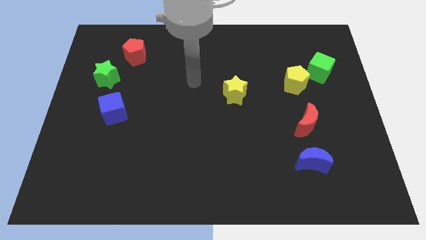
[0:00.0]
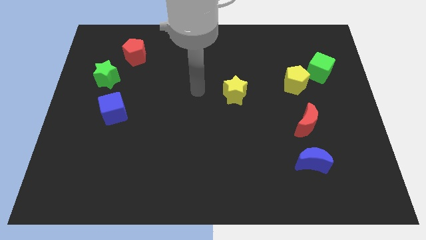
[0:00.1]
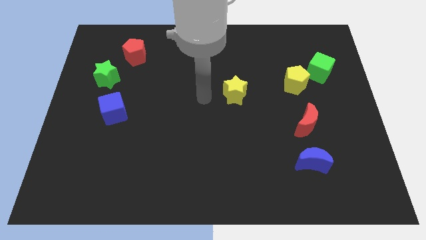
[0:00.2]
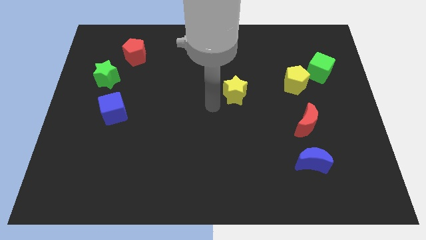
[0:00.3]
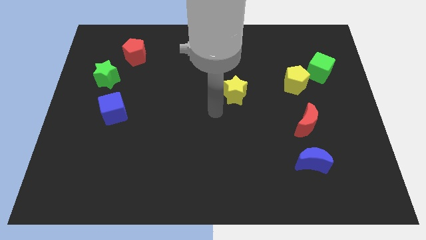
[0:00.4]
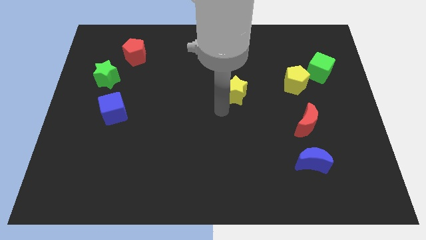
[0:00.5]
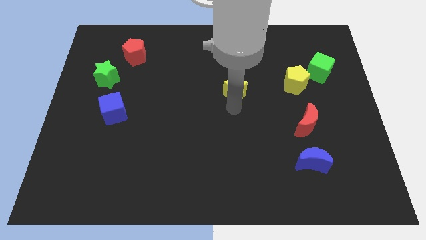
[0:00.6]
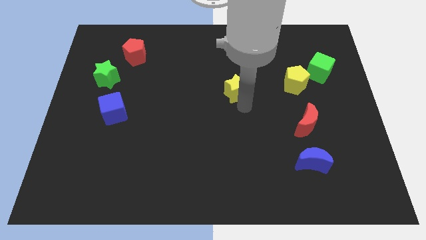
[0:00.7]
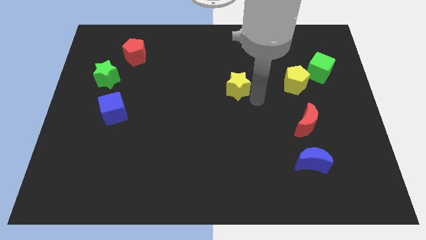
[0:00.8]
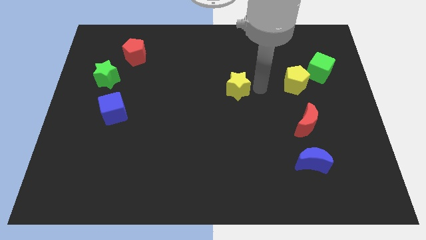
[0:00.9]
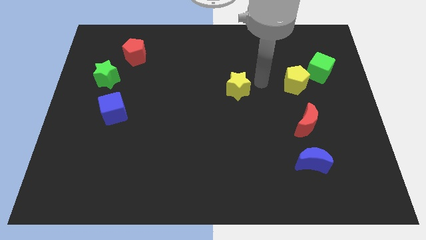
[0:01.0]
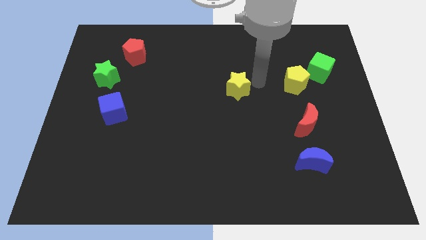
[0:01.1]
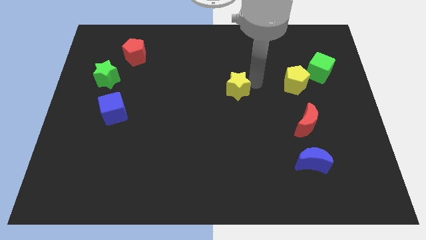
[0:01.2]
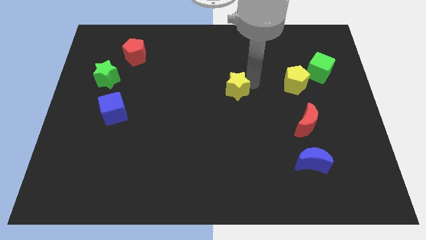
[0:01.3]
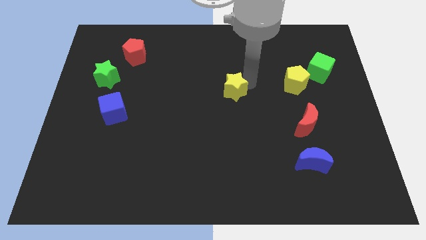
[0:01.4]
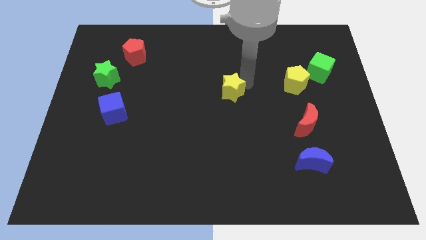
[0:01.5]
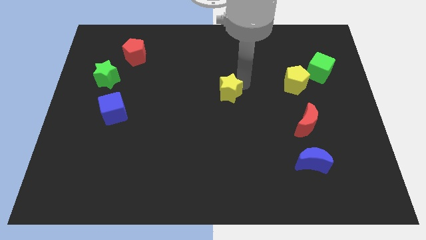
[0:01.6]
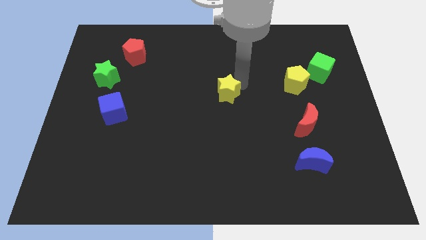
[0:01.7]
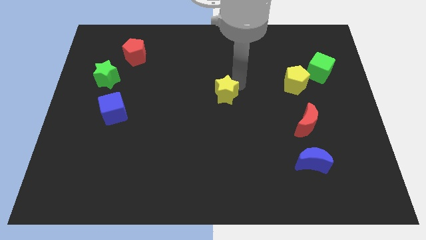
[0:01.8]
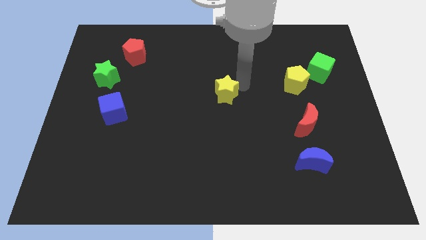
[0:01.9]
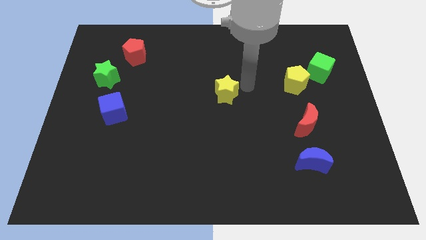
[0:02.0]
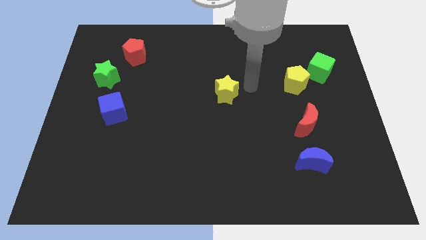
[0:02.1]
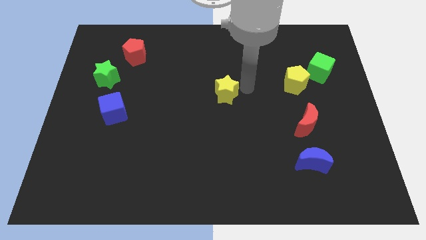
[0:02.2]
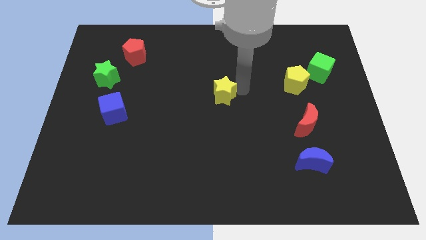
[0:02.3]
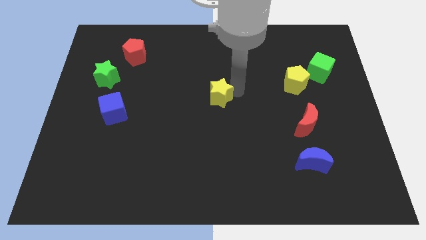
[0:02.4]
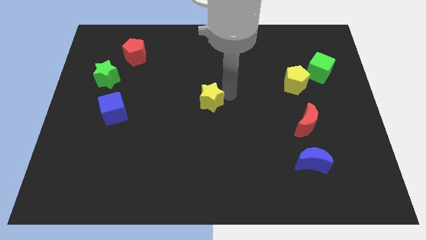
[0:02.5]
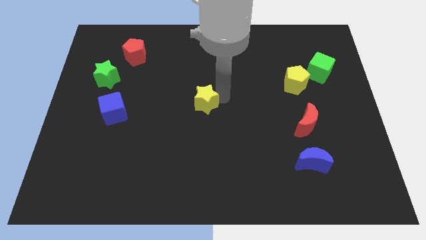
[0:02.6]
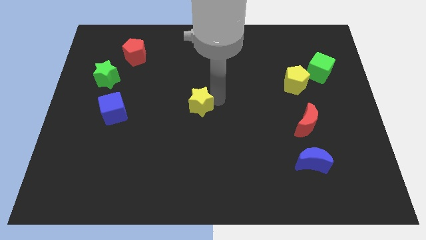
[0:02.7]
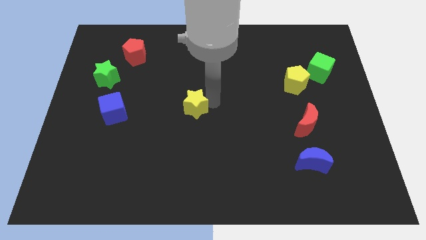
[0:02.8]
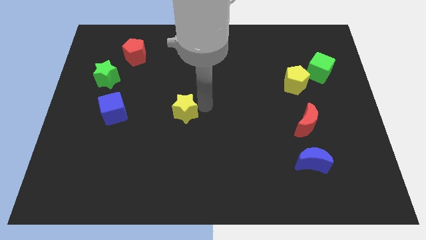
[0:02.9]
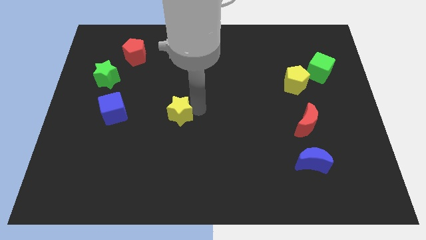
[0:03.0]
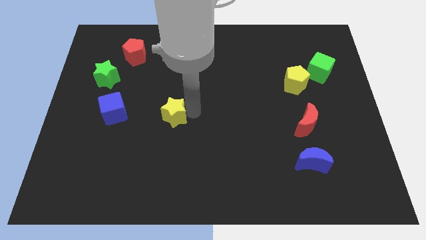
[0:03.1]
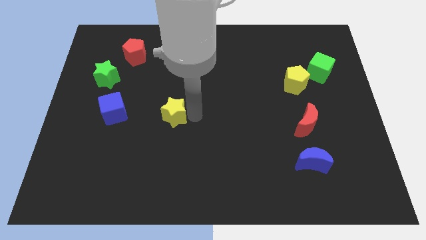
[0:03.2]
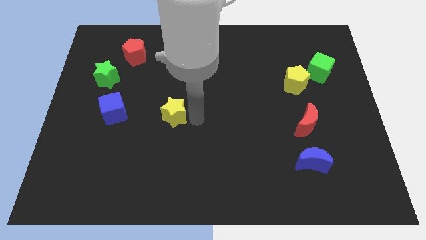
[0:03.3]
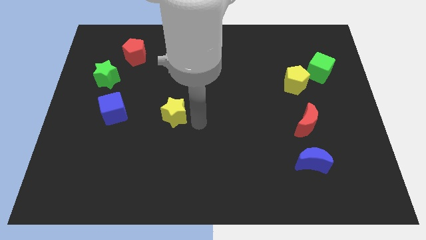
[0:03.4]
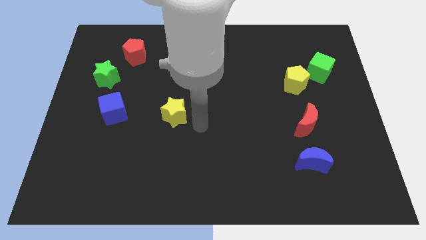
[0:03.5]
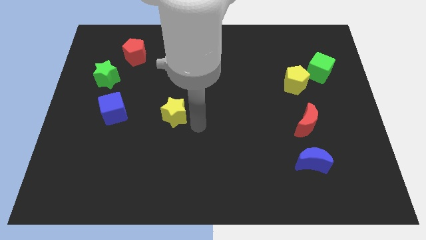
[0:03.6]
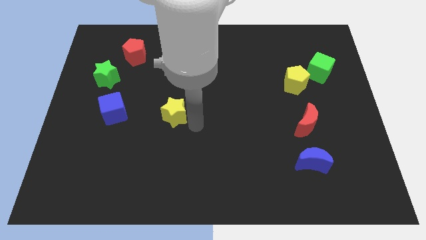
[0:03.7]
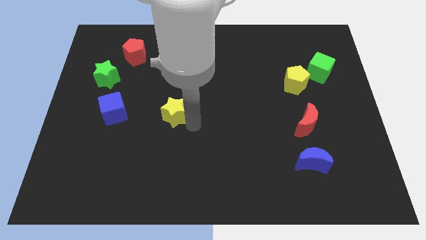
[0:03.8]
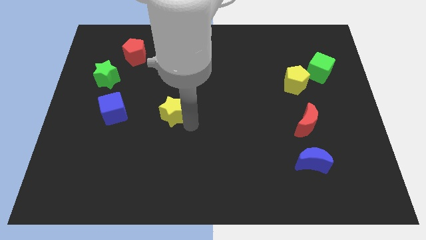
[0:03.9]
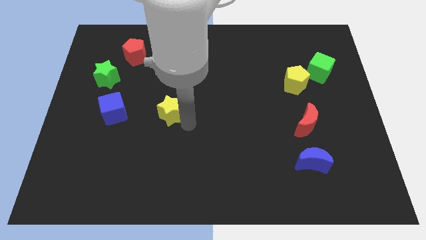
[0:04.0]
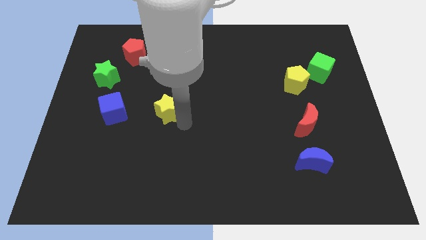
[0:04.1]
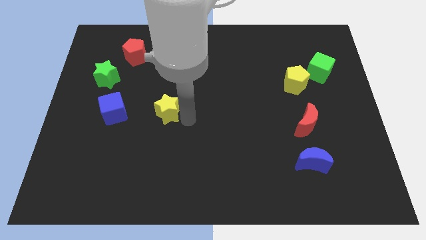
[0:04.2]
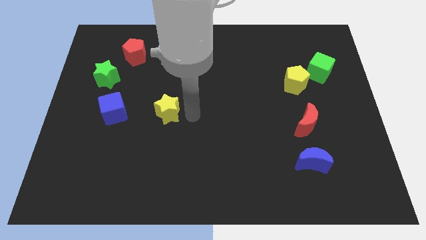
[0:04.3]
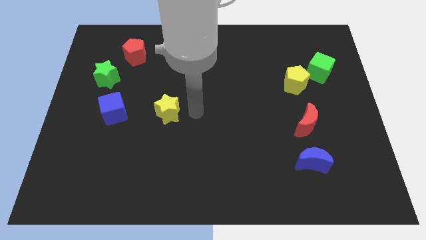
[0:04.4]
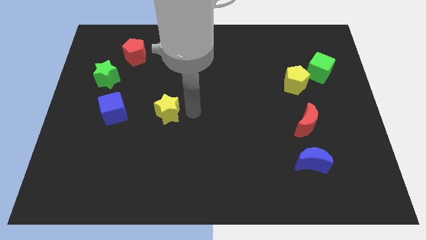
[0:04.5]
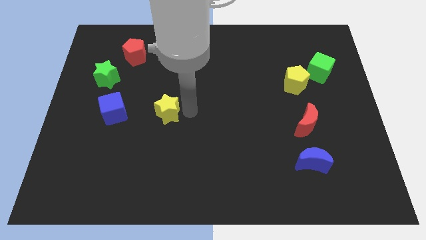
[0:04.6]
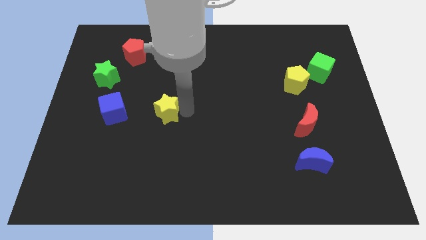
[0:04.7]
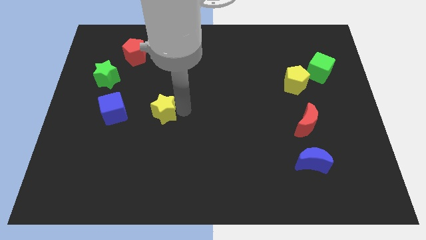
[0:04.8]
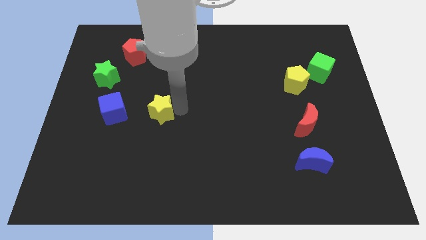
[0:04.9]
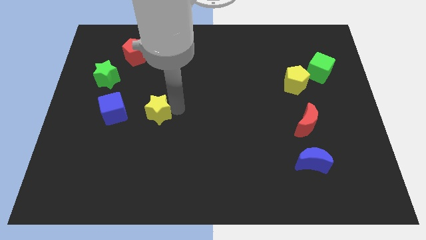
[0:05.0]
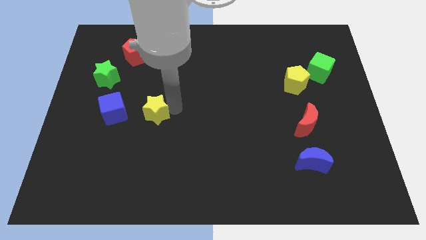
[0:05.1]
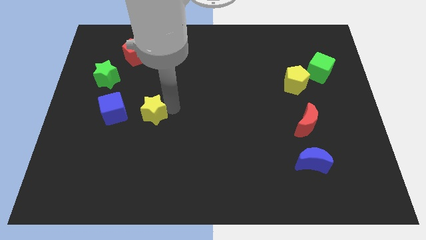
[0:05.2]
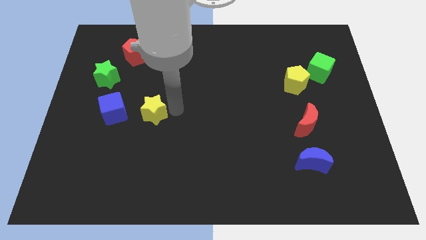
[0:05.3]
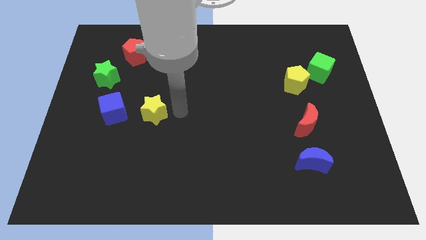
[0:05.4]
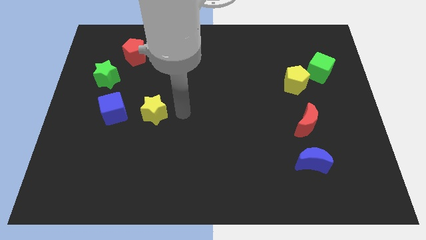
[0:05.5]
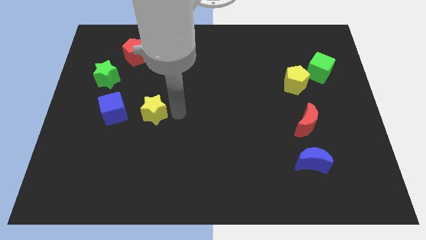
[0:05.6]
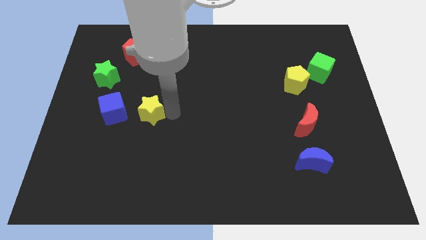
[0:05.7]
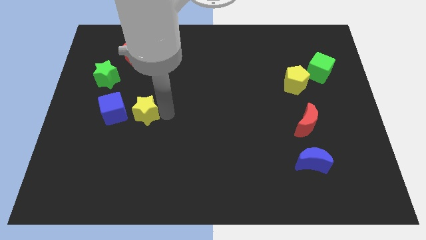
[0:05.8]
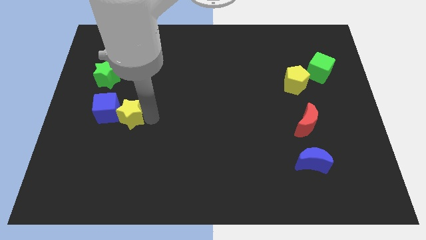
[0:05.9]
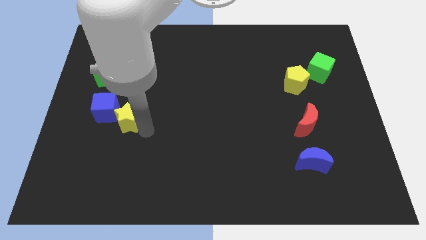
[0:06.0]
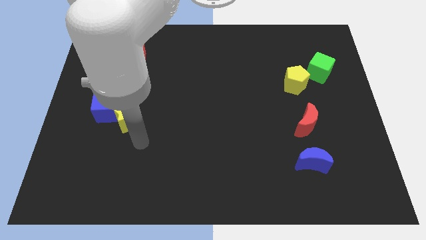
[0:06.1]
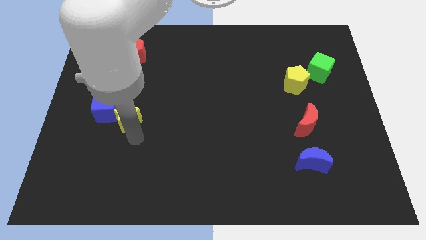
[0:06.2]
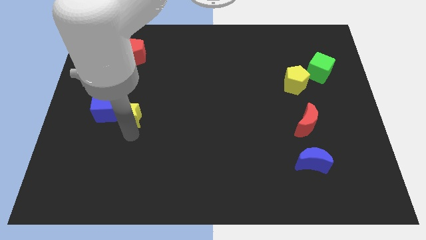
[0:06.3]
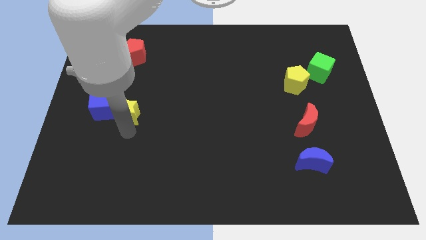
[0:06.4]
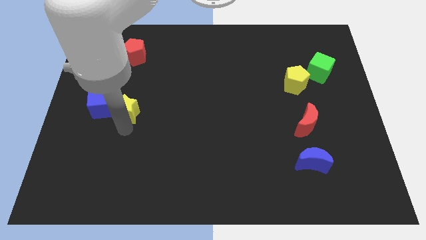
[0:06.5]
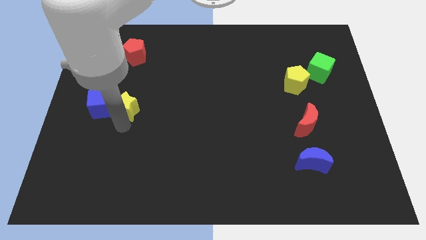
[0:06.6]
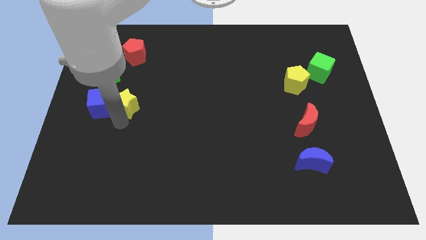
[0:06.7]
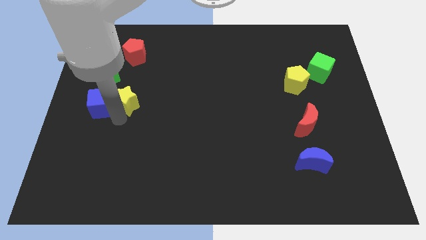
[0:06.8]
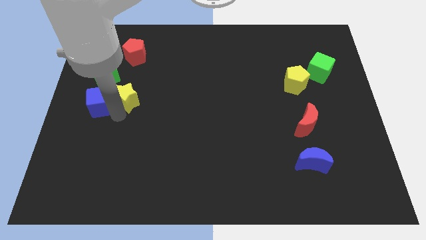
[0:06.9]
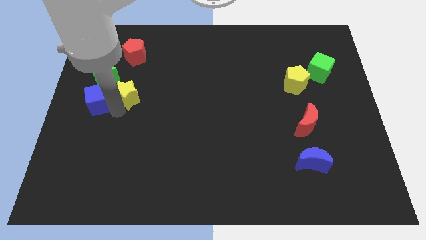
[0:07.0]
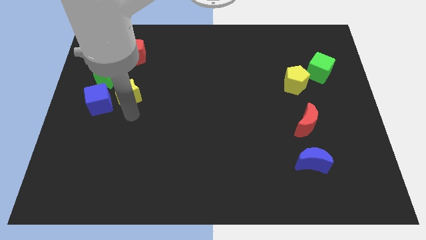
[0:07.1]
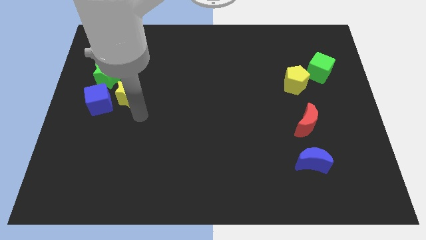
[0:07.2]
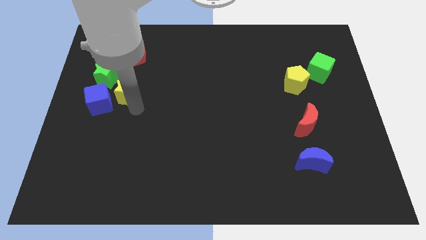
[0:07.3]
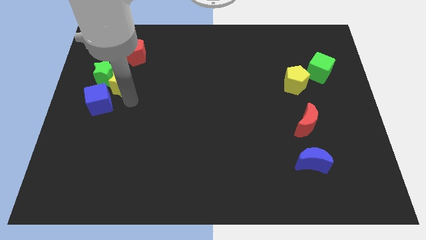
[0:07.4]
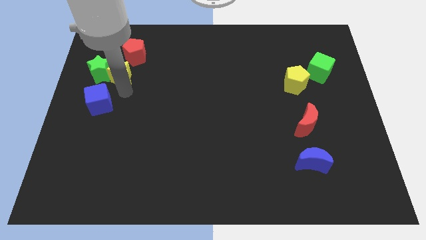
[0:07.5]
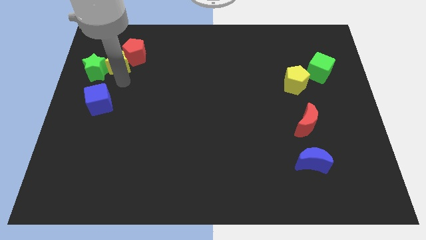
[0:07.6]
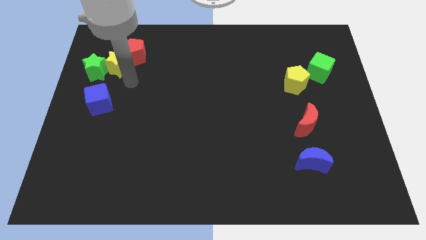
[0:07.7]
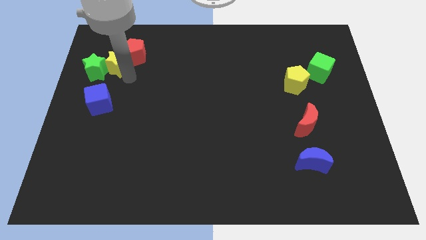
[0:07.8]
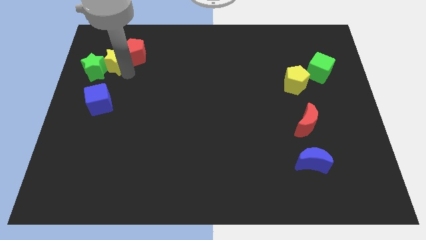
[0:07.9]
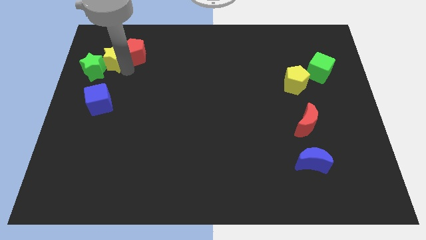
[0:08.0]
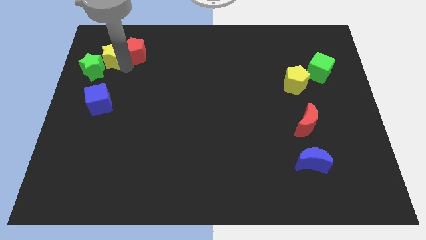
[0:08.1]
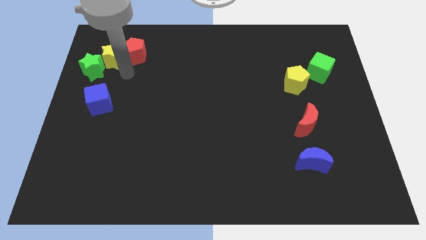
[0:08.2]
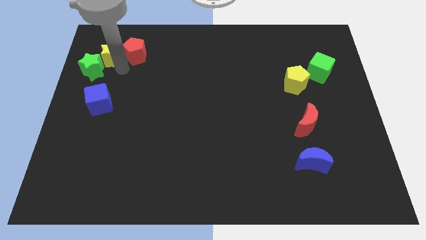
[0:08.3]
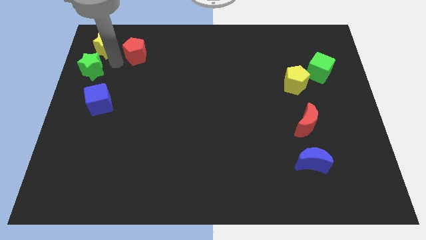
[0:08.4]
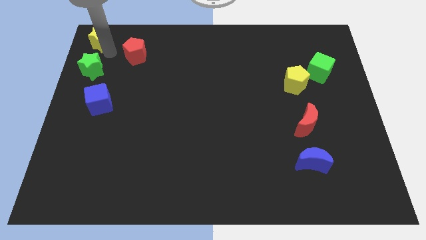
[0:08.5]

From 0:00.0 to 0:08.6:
push the yellow star to the top left of the board
